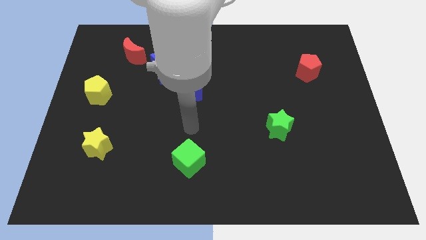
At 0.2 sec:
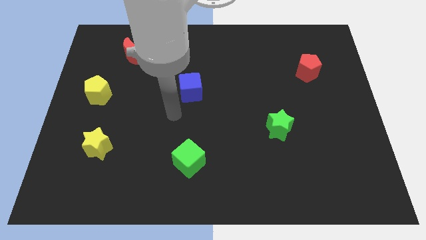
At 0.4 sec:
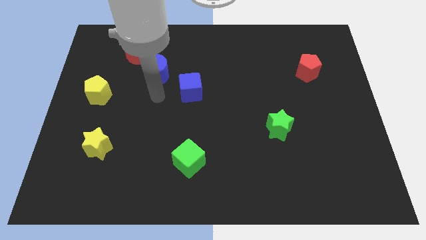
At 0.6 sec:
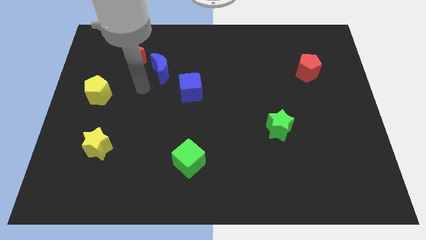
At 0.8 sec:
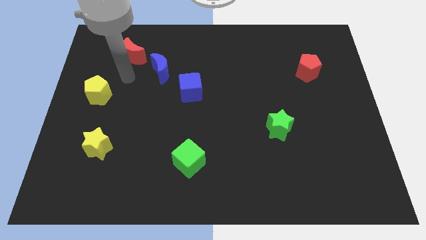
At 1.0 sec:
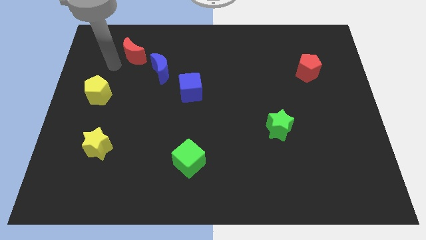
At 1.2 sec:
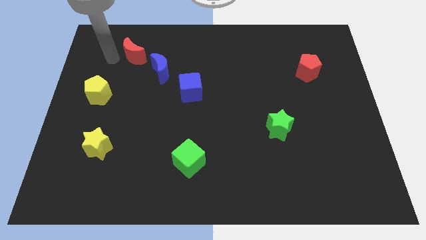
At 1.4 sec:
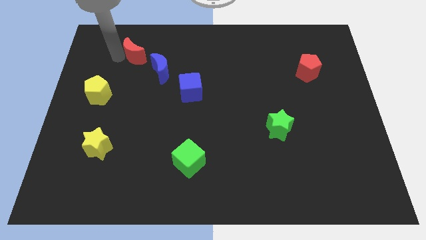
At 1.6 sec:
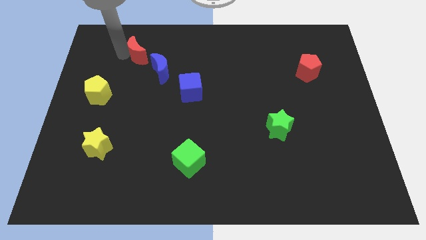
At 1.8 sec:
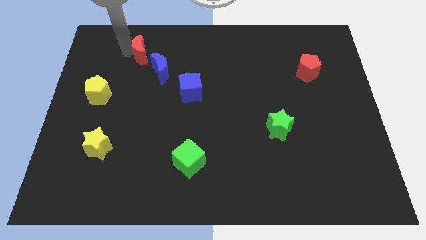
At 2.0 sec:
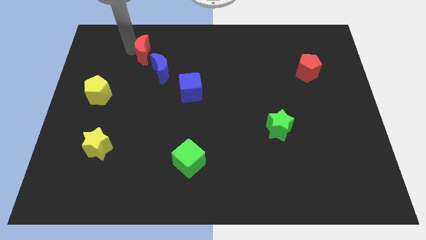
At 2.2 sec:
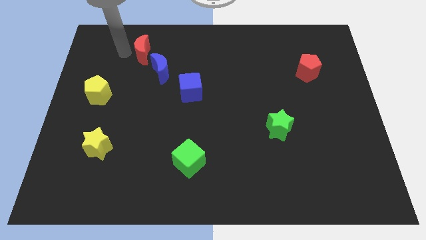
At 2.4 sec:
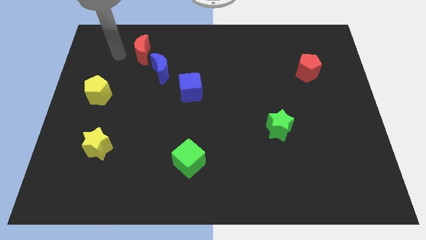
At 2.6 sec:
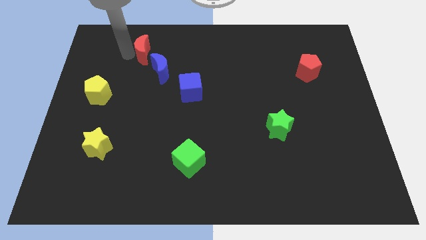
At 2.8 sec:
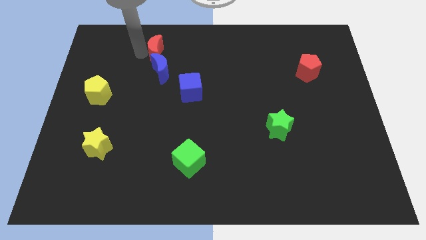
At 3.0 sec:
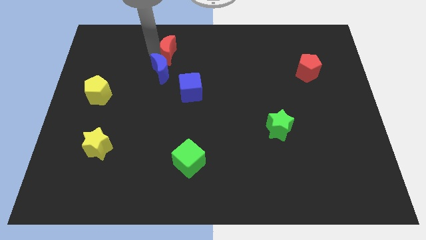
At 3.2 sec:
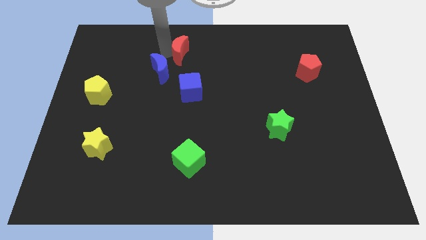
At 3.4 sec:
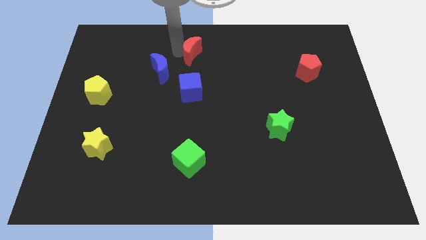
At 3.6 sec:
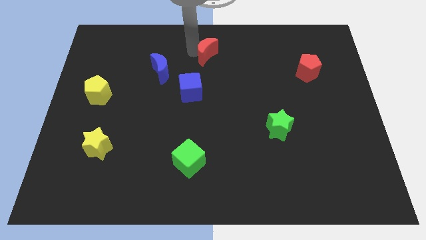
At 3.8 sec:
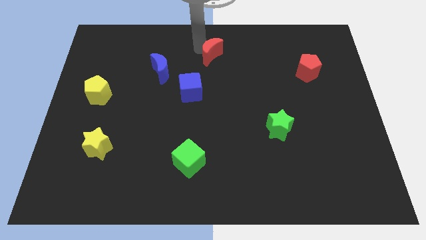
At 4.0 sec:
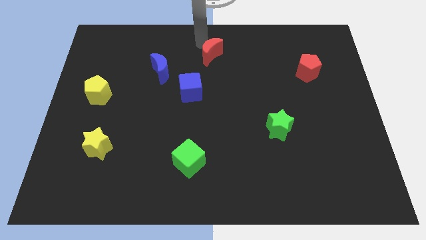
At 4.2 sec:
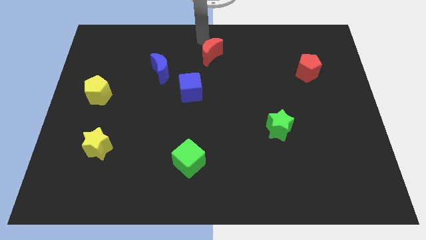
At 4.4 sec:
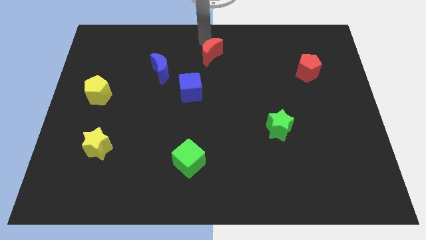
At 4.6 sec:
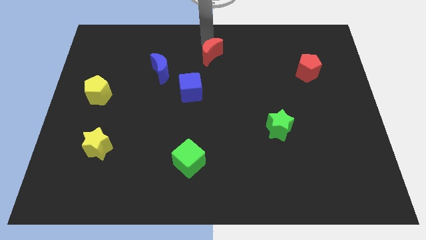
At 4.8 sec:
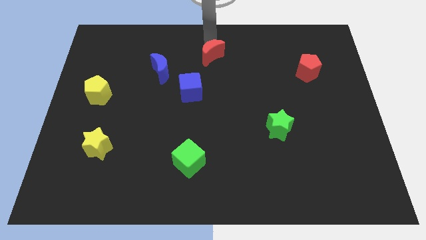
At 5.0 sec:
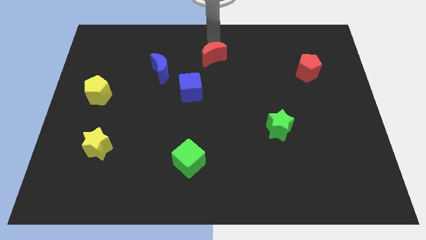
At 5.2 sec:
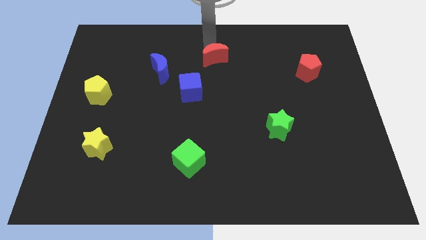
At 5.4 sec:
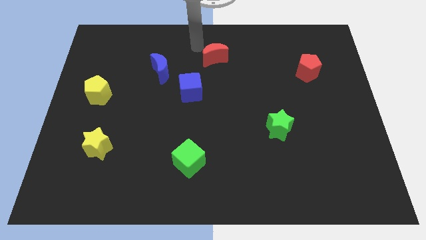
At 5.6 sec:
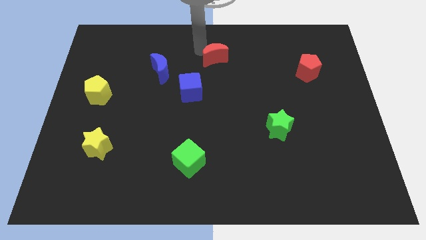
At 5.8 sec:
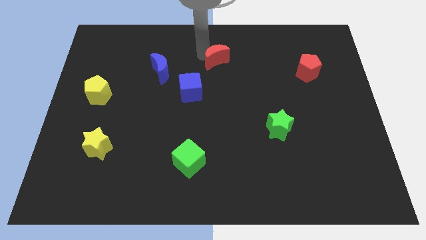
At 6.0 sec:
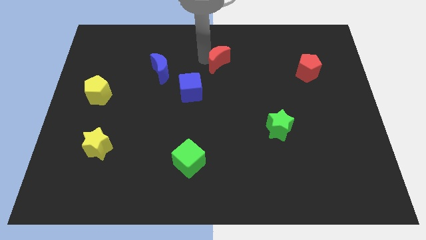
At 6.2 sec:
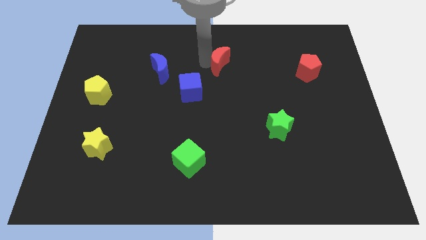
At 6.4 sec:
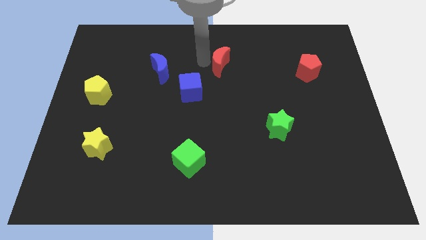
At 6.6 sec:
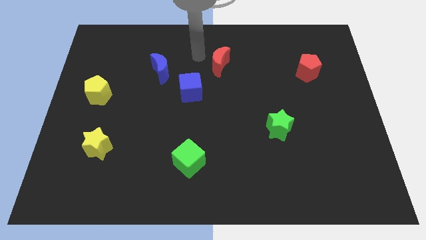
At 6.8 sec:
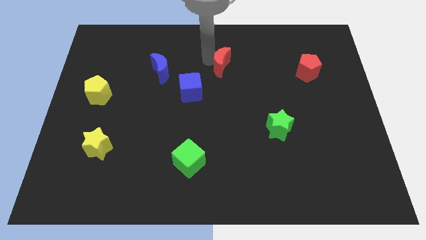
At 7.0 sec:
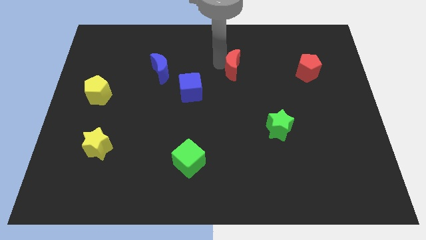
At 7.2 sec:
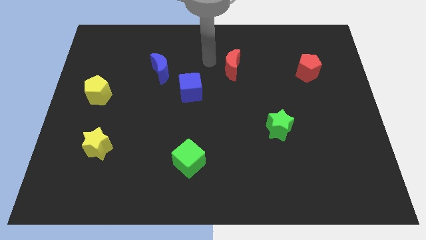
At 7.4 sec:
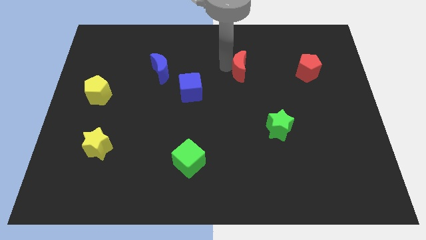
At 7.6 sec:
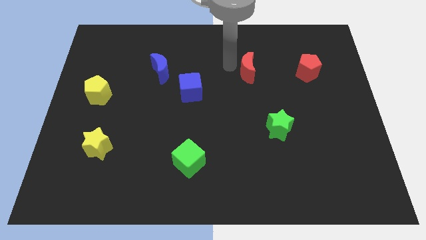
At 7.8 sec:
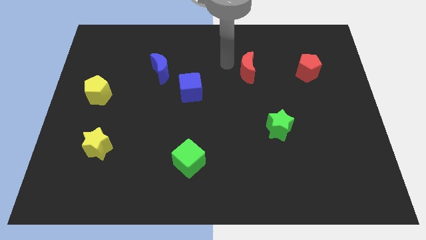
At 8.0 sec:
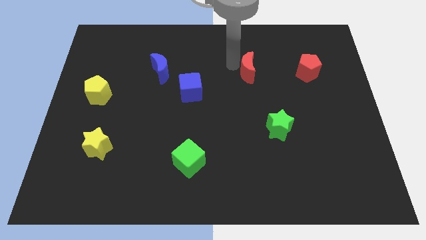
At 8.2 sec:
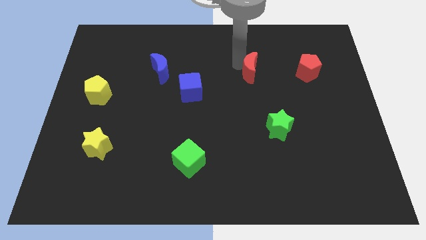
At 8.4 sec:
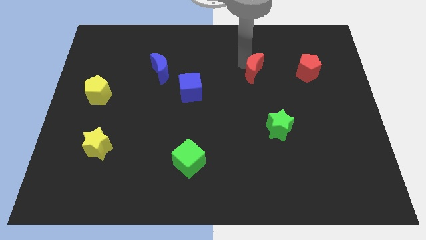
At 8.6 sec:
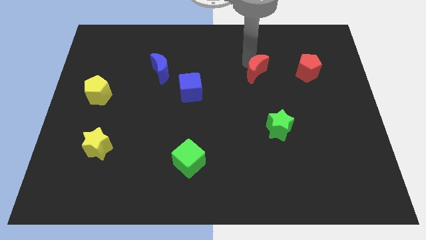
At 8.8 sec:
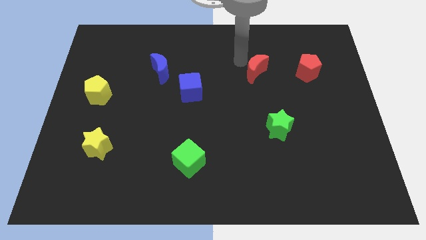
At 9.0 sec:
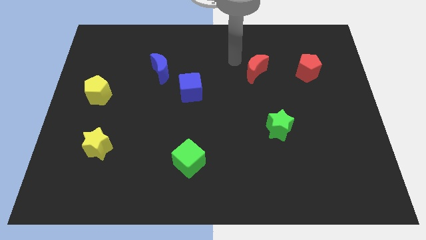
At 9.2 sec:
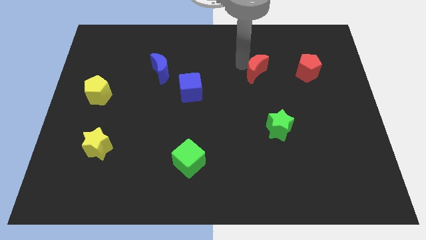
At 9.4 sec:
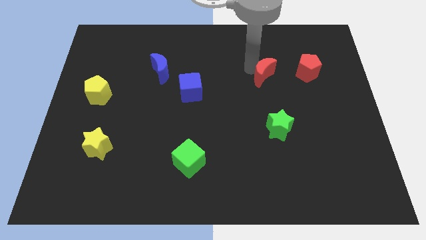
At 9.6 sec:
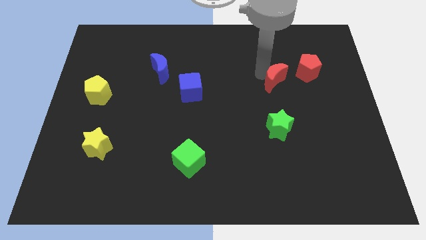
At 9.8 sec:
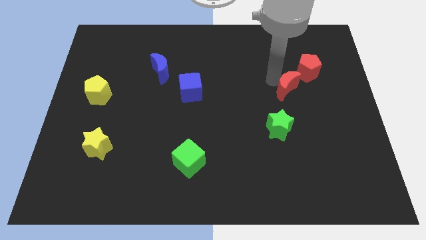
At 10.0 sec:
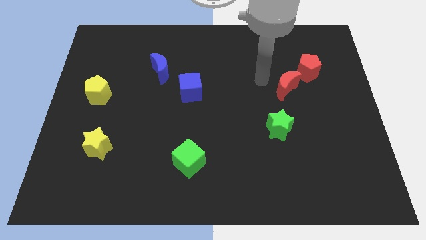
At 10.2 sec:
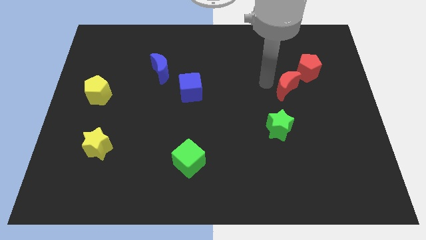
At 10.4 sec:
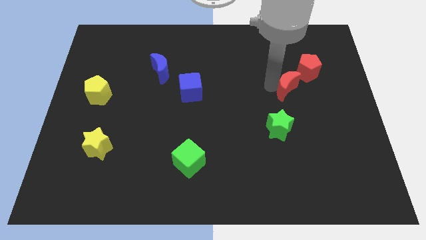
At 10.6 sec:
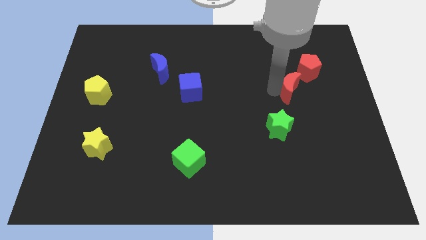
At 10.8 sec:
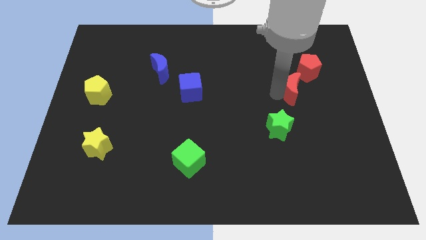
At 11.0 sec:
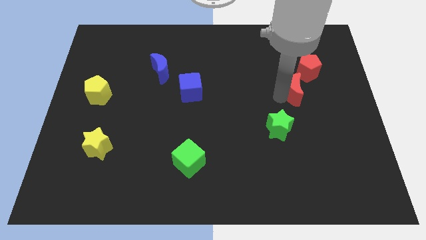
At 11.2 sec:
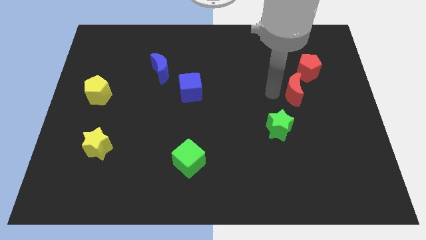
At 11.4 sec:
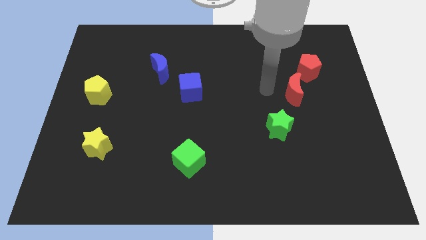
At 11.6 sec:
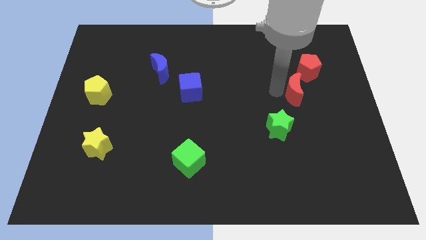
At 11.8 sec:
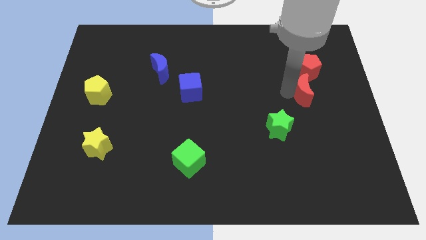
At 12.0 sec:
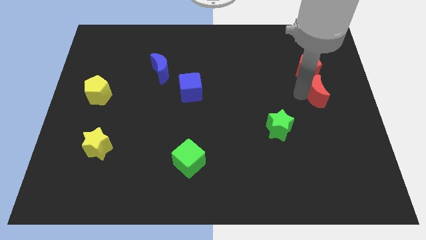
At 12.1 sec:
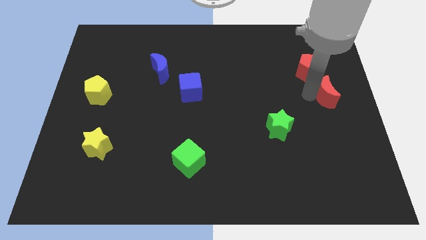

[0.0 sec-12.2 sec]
push the red moon to the center right

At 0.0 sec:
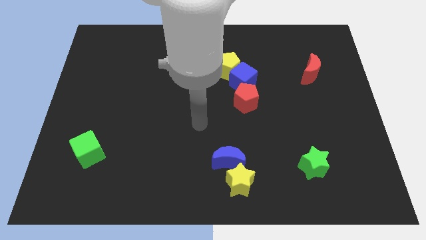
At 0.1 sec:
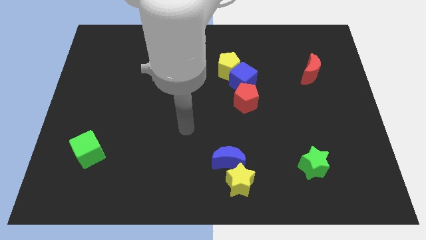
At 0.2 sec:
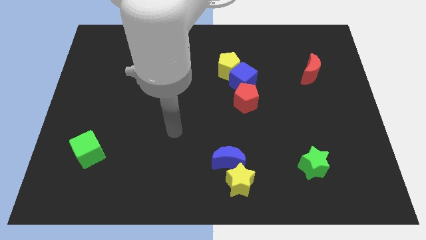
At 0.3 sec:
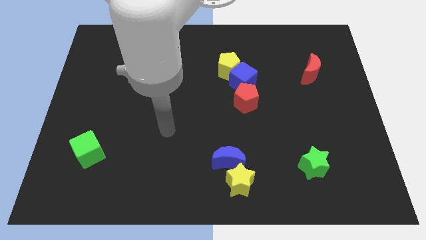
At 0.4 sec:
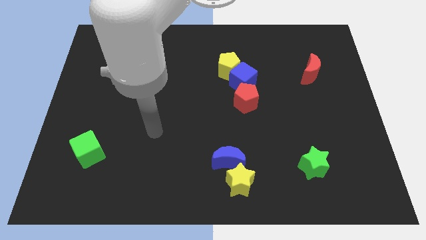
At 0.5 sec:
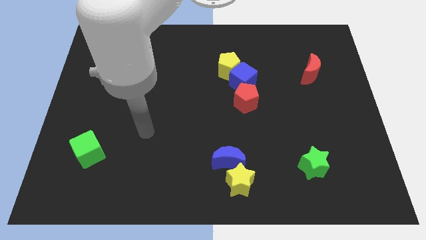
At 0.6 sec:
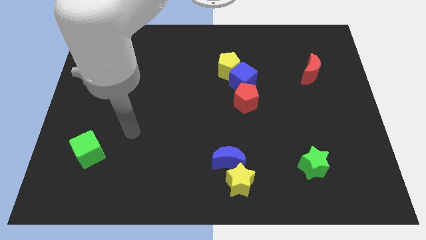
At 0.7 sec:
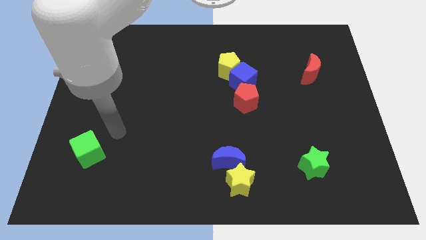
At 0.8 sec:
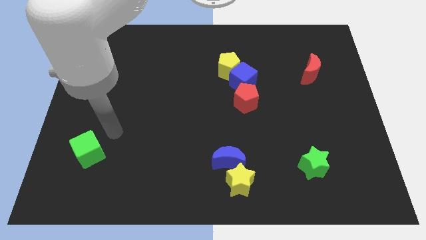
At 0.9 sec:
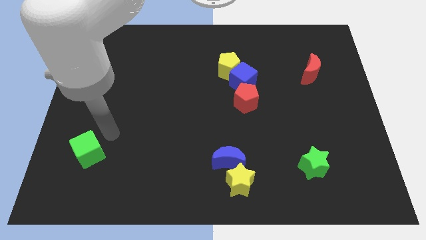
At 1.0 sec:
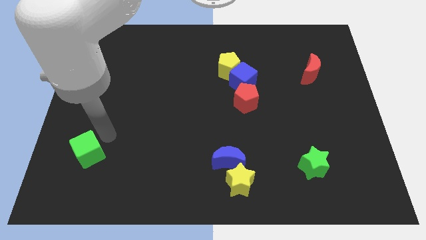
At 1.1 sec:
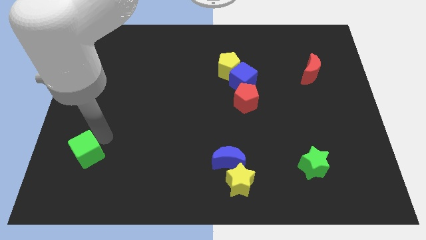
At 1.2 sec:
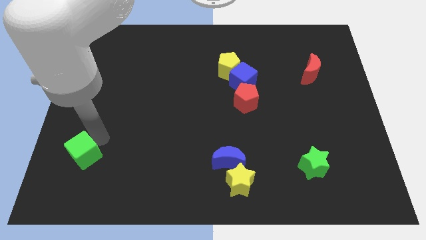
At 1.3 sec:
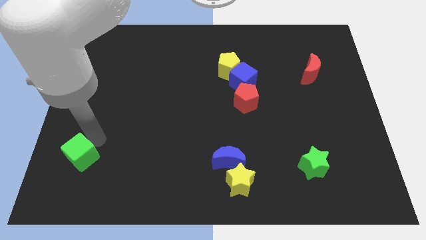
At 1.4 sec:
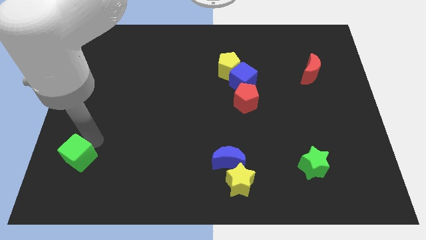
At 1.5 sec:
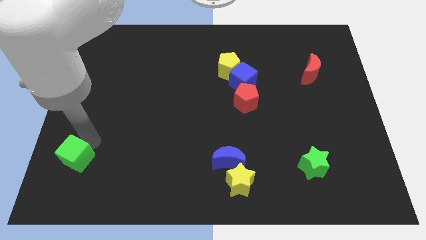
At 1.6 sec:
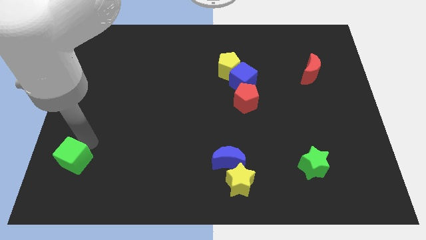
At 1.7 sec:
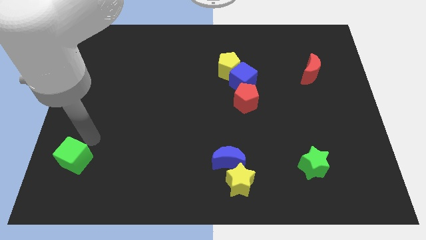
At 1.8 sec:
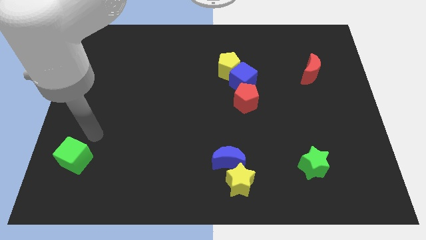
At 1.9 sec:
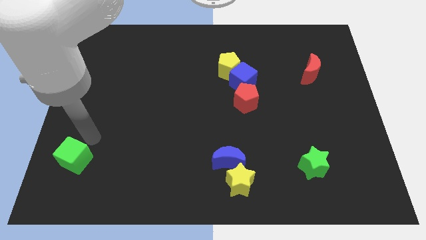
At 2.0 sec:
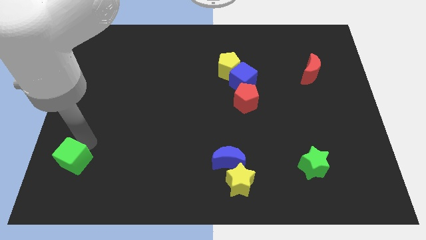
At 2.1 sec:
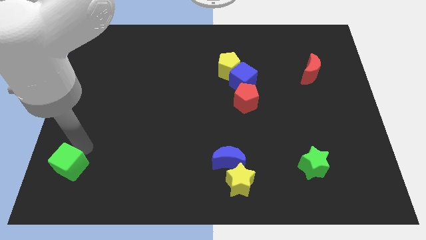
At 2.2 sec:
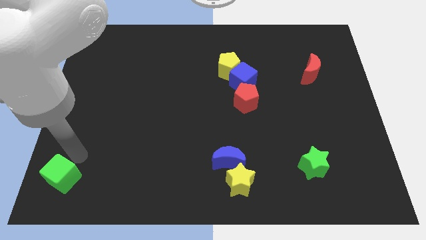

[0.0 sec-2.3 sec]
move the green cube to the bottom left corner
